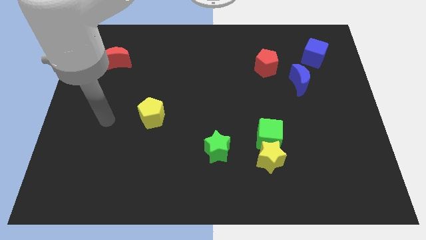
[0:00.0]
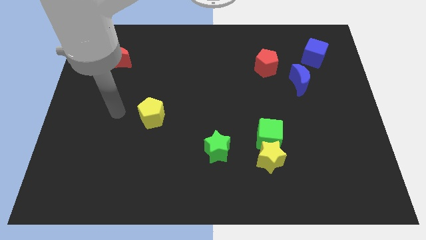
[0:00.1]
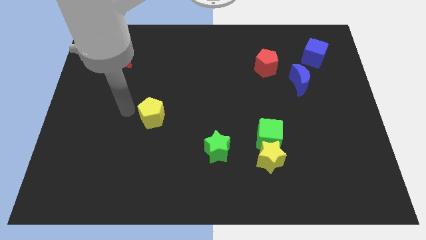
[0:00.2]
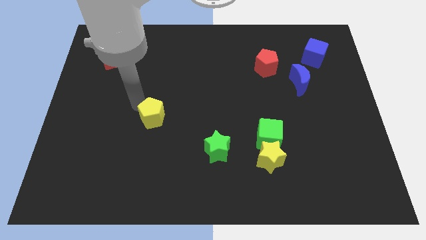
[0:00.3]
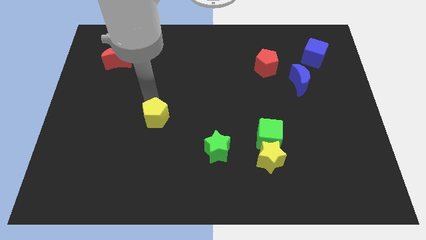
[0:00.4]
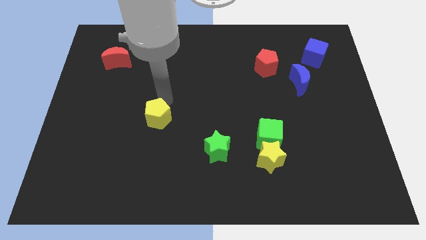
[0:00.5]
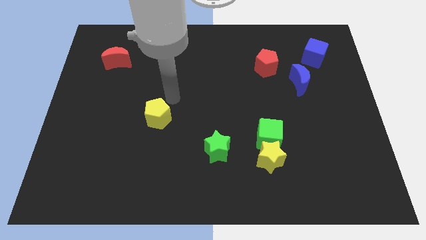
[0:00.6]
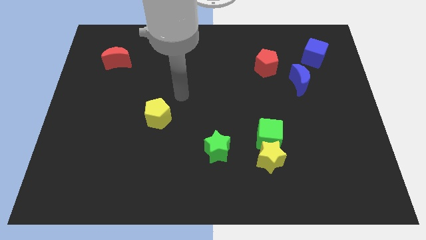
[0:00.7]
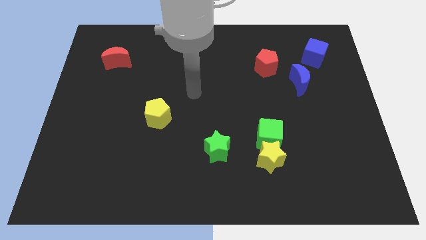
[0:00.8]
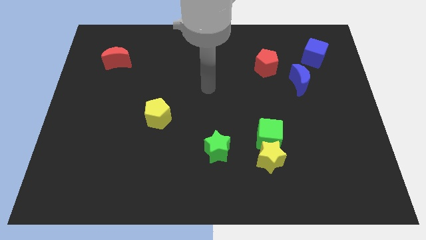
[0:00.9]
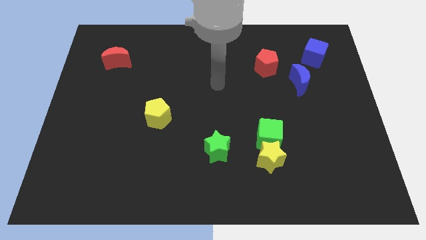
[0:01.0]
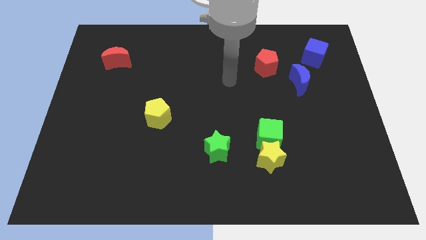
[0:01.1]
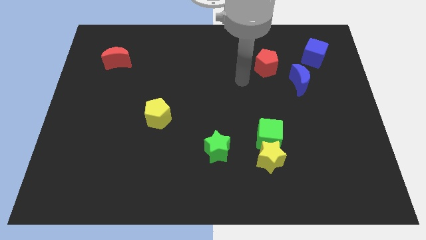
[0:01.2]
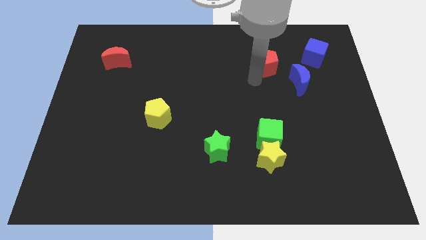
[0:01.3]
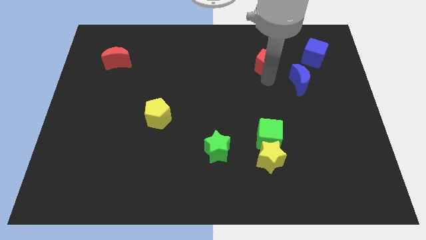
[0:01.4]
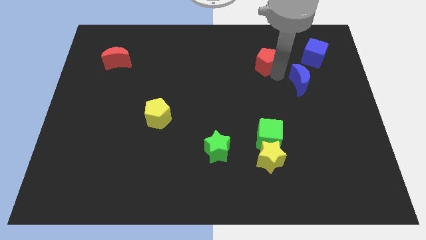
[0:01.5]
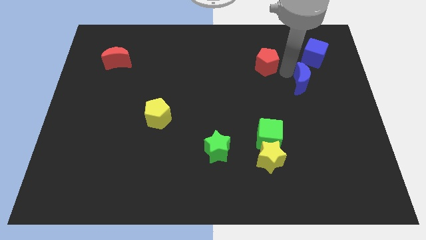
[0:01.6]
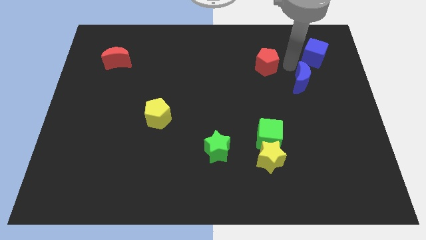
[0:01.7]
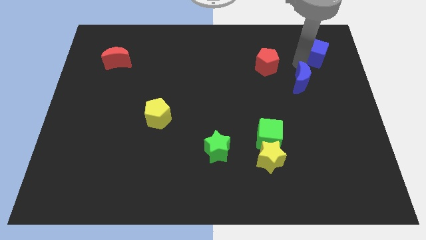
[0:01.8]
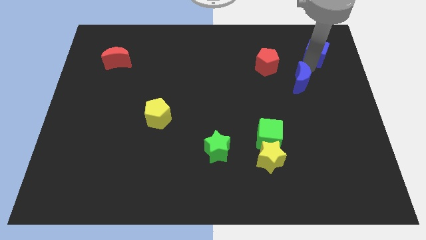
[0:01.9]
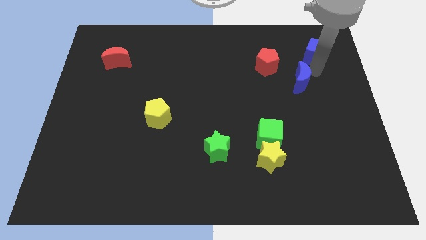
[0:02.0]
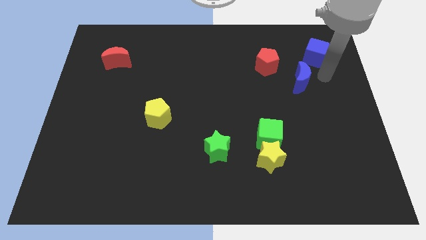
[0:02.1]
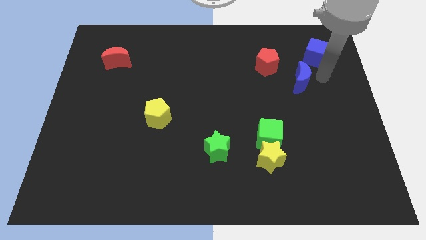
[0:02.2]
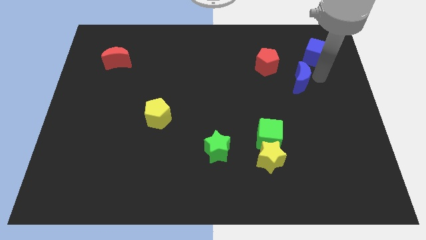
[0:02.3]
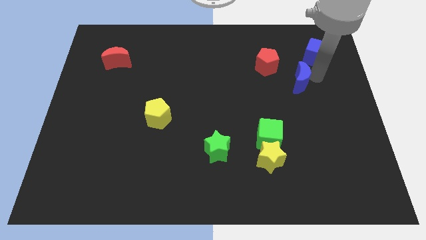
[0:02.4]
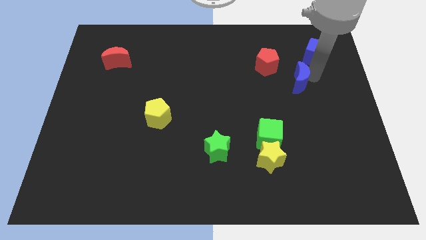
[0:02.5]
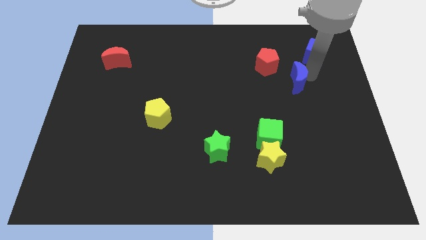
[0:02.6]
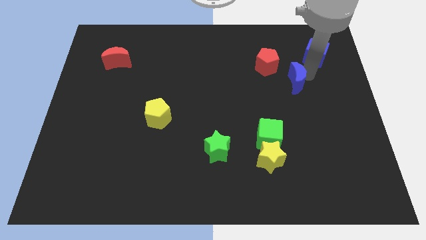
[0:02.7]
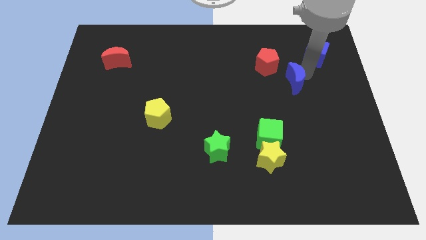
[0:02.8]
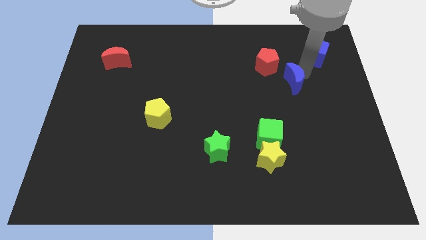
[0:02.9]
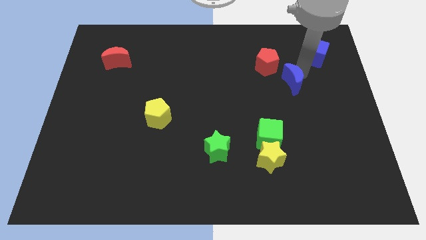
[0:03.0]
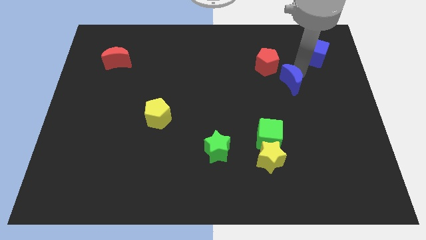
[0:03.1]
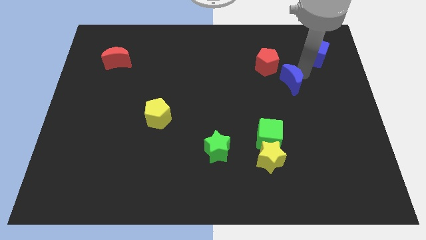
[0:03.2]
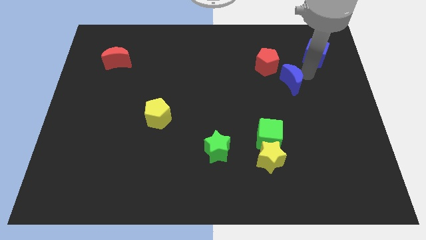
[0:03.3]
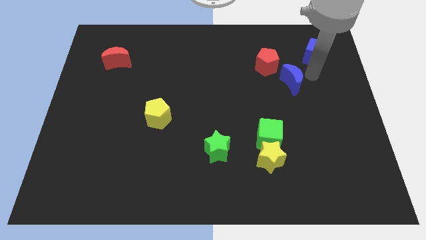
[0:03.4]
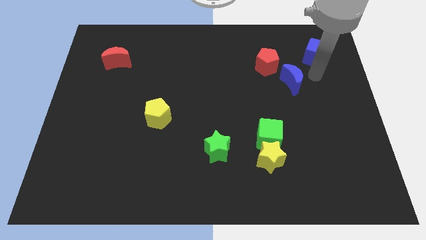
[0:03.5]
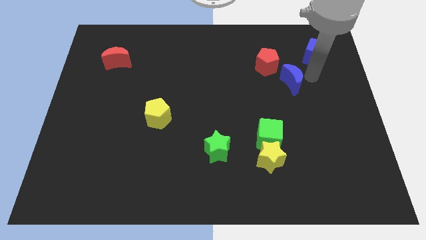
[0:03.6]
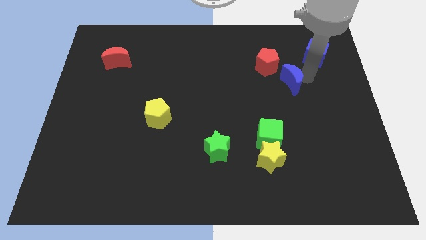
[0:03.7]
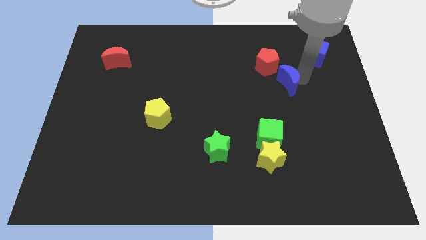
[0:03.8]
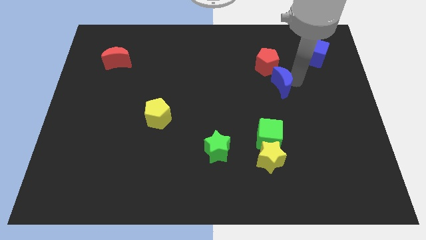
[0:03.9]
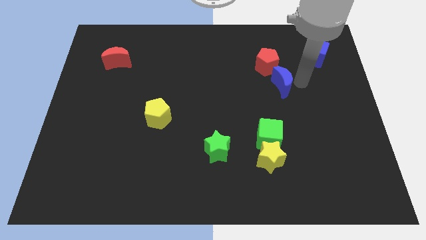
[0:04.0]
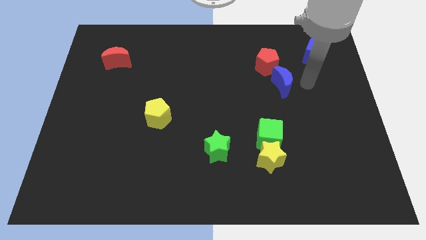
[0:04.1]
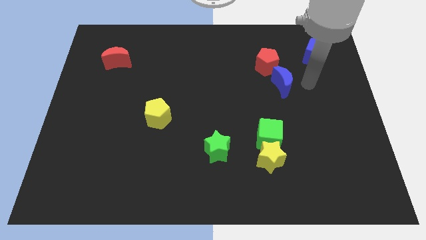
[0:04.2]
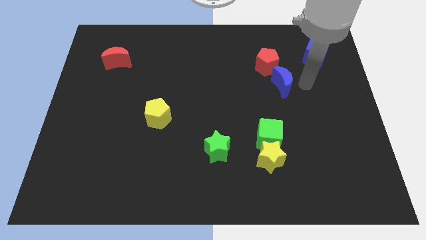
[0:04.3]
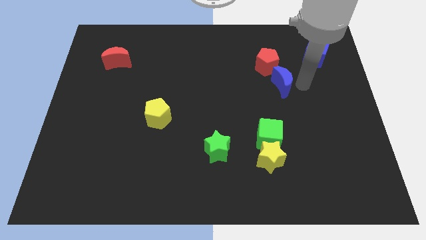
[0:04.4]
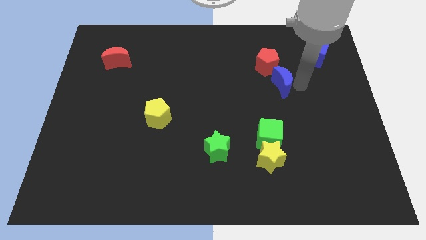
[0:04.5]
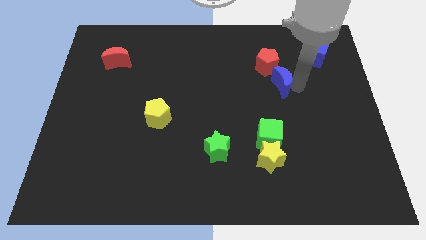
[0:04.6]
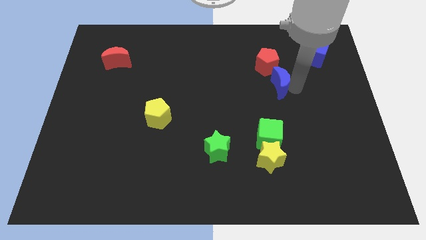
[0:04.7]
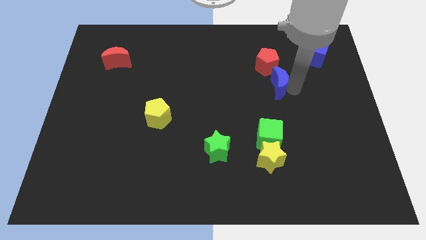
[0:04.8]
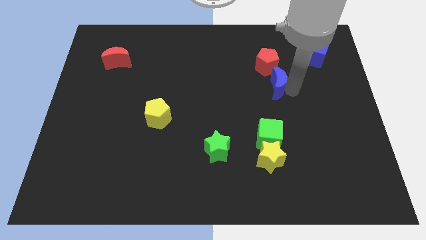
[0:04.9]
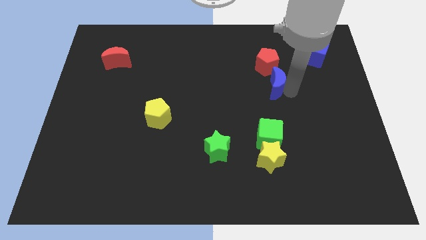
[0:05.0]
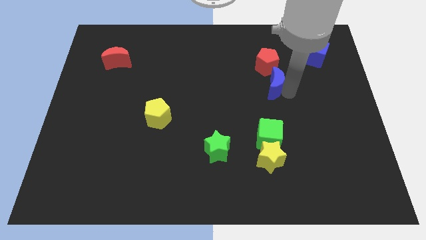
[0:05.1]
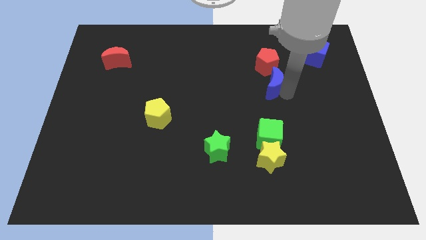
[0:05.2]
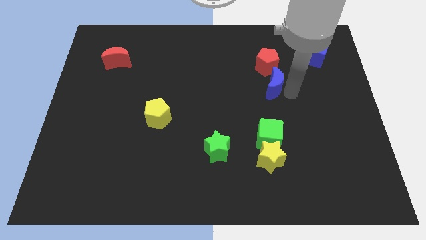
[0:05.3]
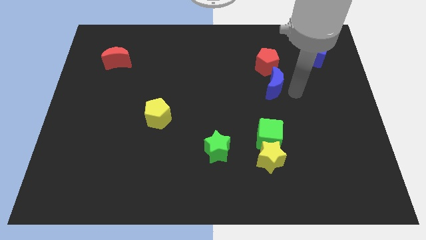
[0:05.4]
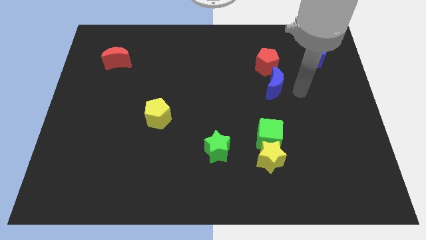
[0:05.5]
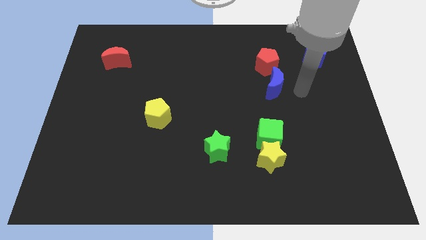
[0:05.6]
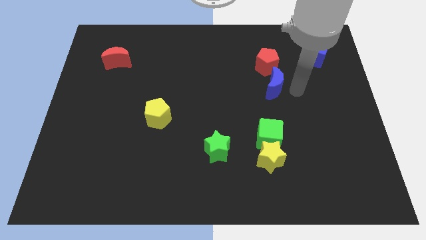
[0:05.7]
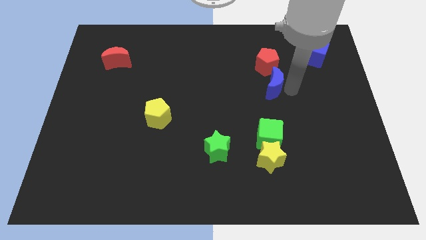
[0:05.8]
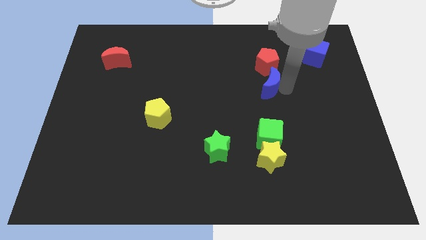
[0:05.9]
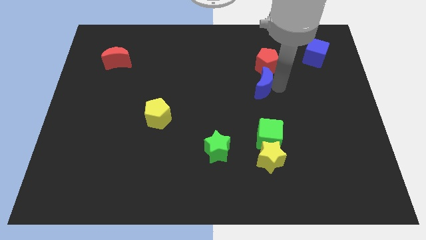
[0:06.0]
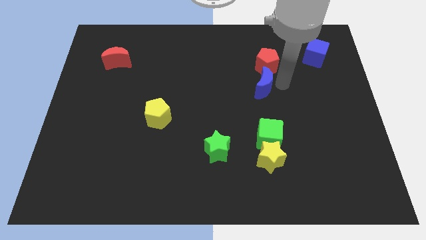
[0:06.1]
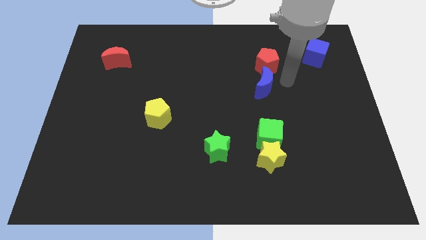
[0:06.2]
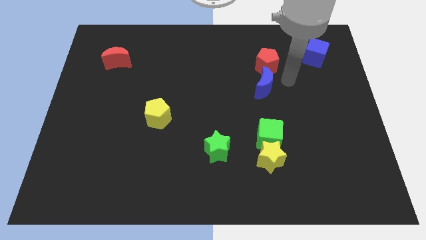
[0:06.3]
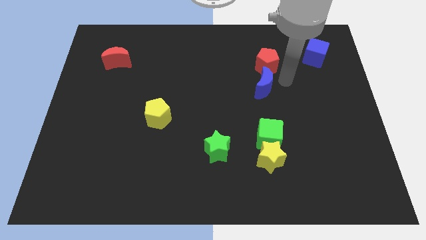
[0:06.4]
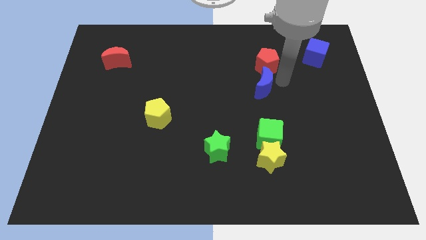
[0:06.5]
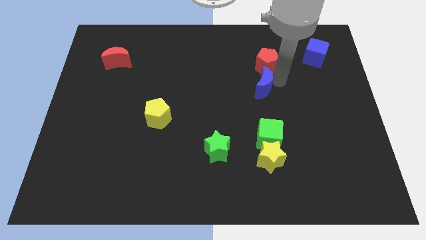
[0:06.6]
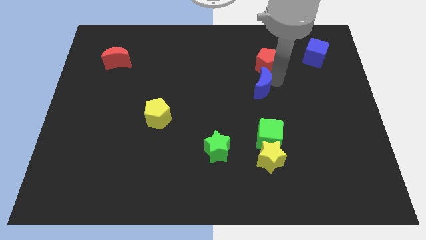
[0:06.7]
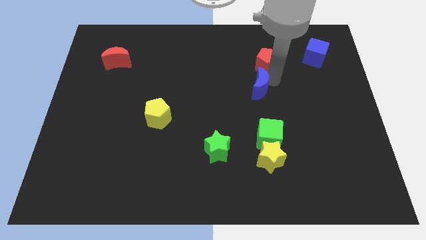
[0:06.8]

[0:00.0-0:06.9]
move the blue moon to the middle
